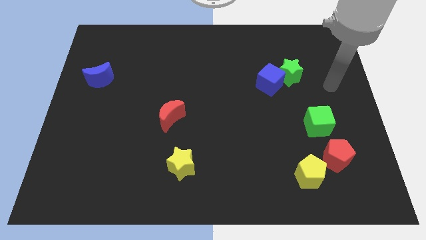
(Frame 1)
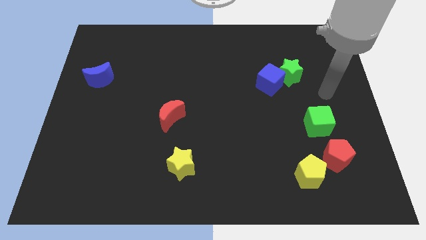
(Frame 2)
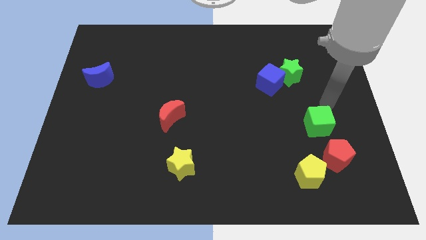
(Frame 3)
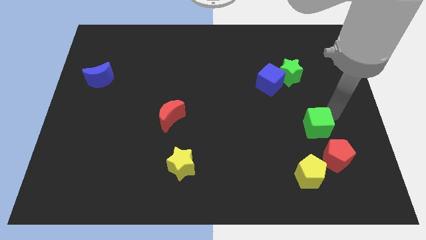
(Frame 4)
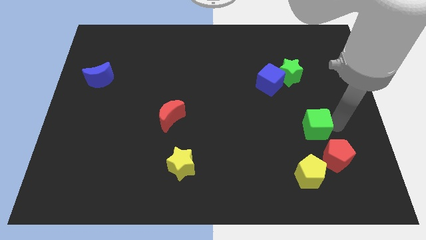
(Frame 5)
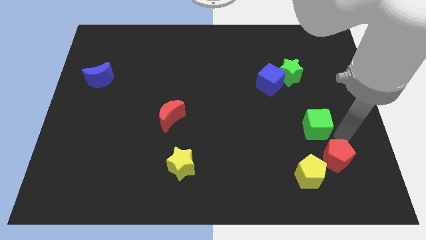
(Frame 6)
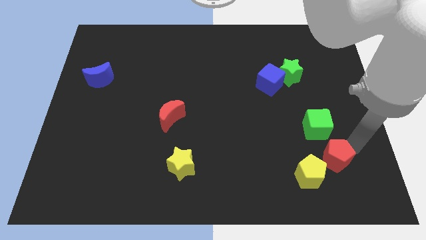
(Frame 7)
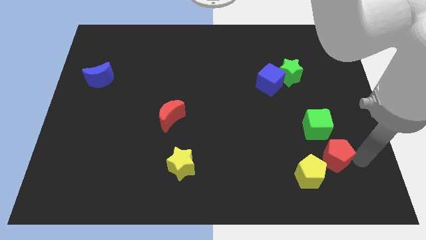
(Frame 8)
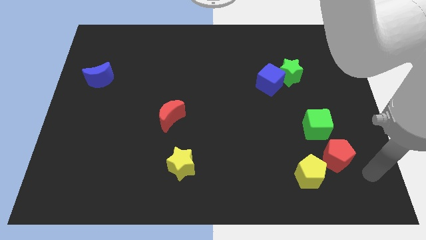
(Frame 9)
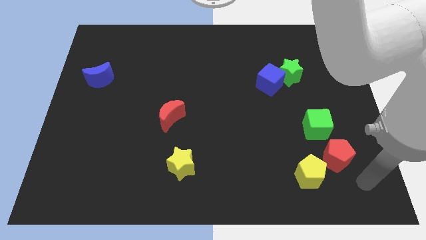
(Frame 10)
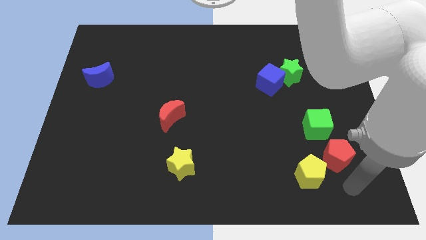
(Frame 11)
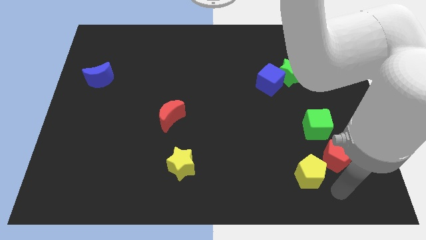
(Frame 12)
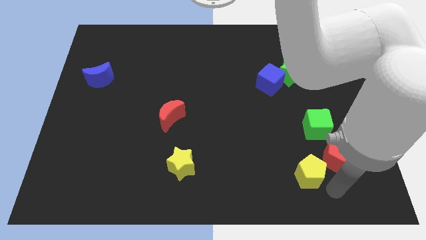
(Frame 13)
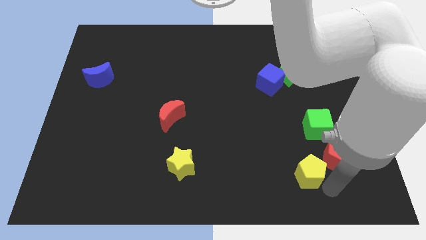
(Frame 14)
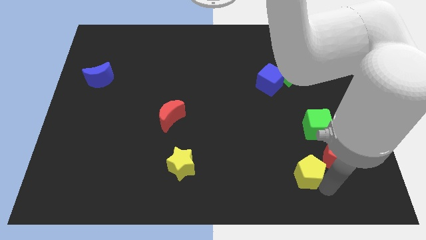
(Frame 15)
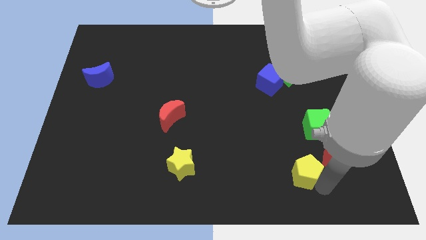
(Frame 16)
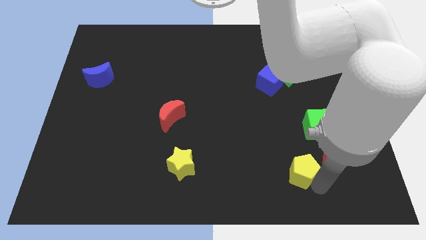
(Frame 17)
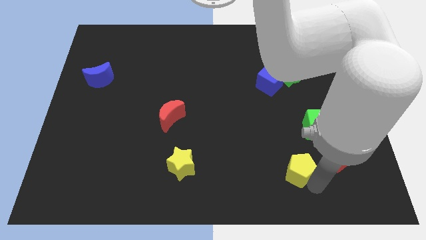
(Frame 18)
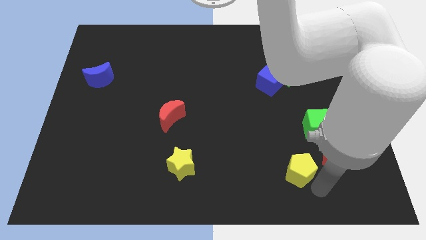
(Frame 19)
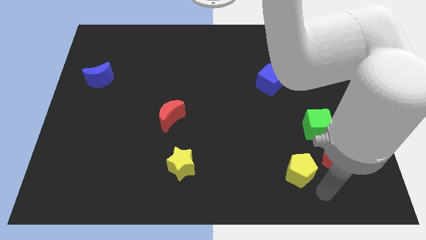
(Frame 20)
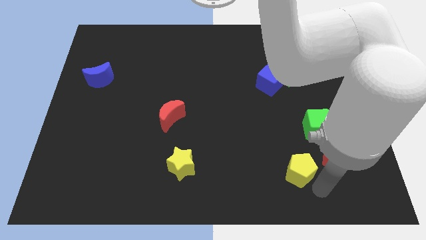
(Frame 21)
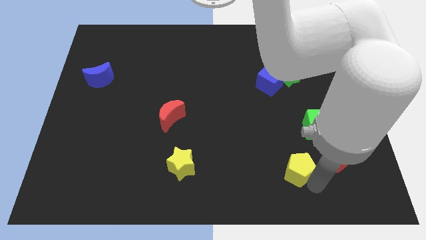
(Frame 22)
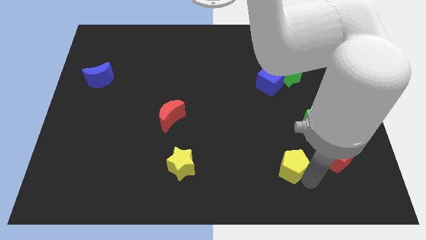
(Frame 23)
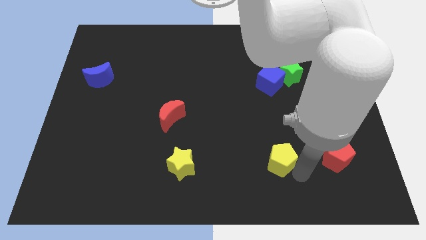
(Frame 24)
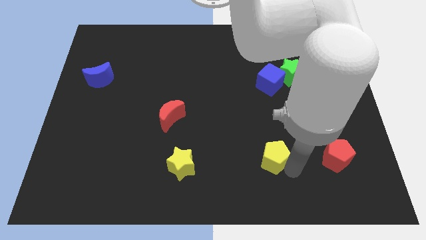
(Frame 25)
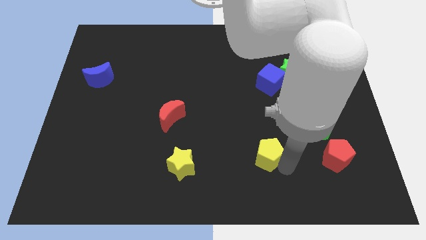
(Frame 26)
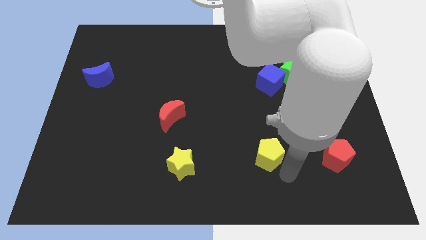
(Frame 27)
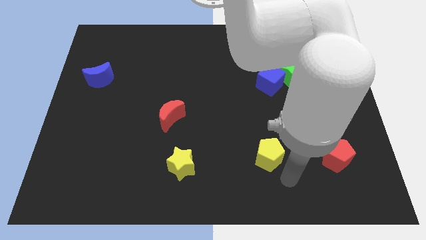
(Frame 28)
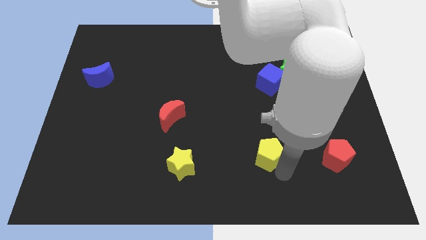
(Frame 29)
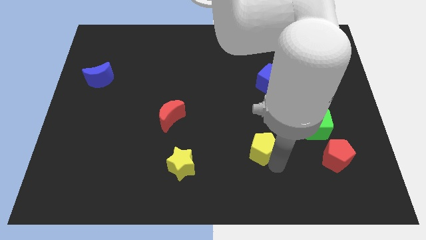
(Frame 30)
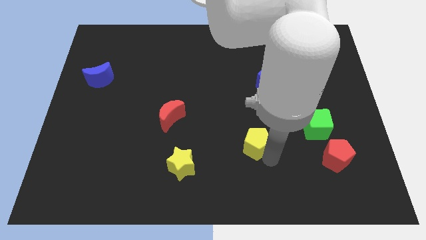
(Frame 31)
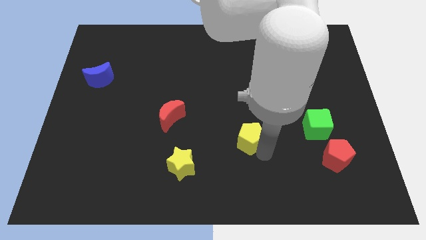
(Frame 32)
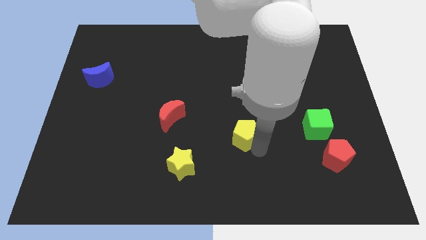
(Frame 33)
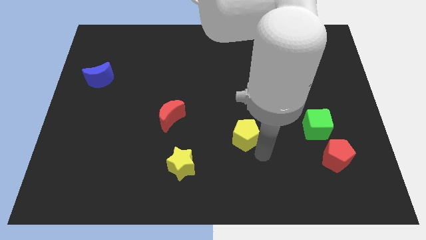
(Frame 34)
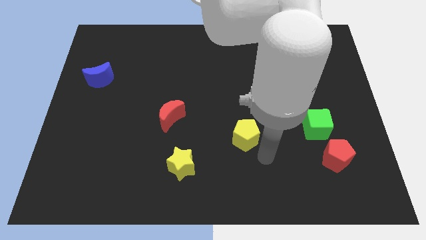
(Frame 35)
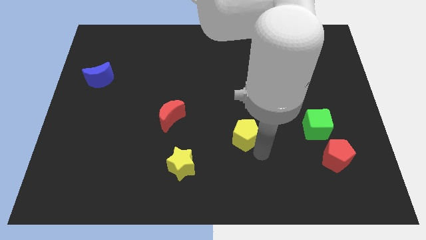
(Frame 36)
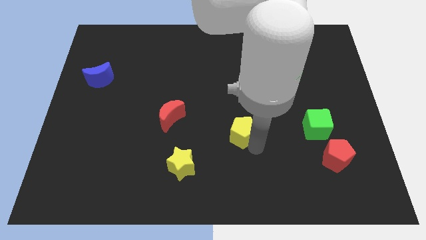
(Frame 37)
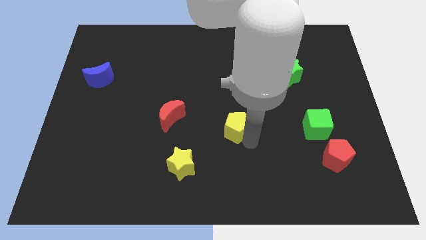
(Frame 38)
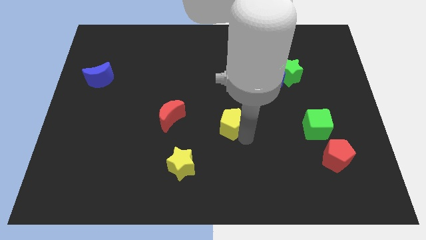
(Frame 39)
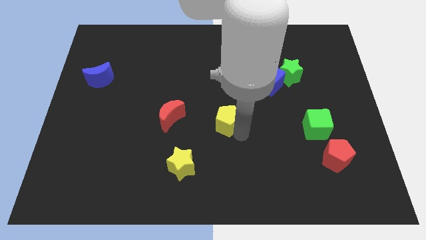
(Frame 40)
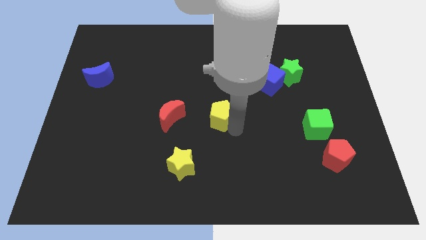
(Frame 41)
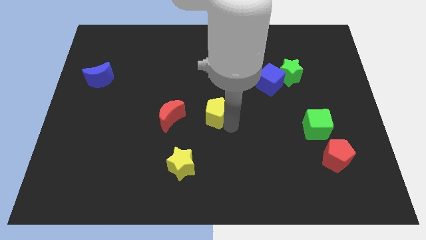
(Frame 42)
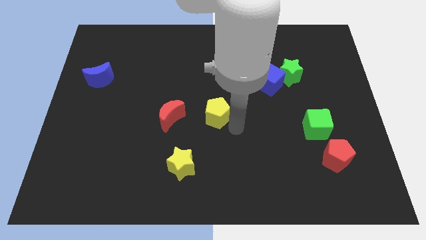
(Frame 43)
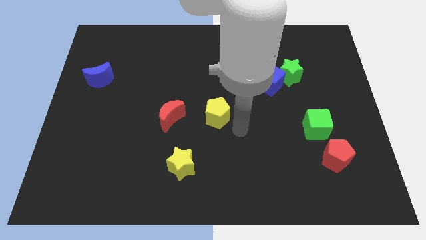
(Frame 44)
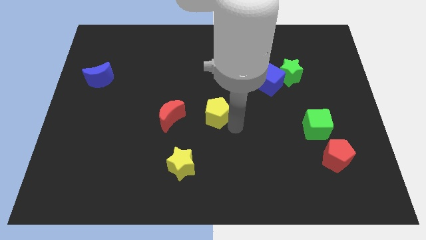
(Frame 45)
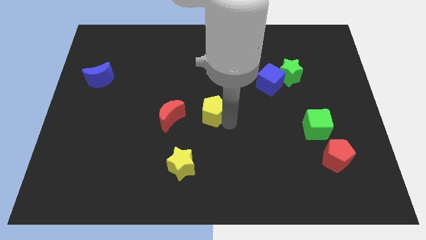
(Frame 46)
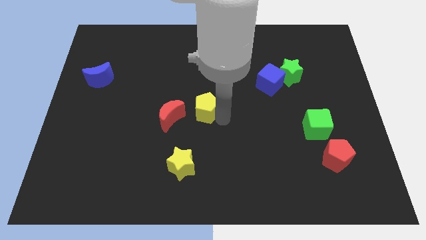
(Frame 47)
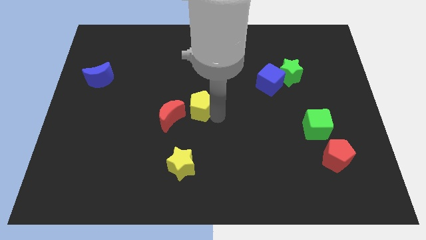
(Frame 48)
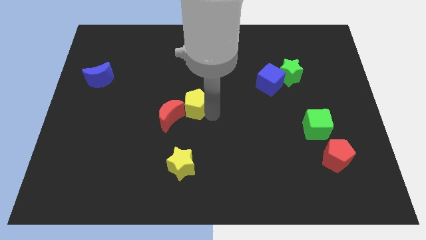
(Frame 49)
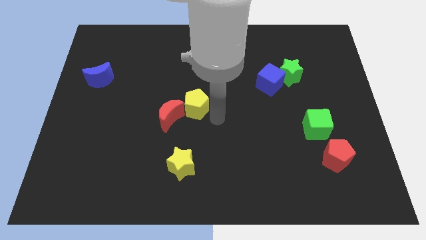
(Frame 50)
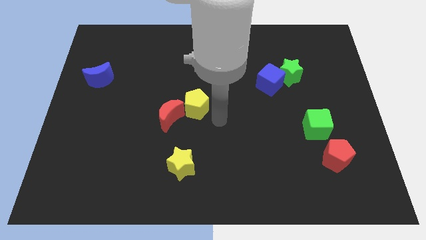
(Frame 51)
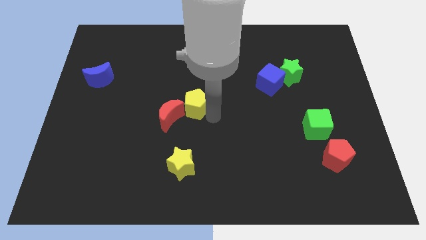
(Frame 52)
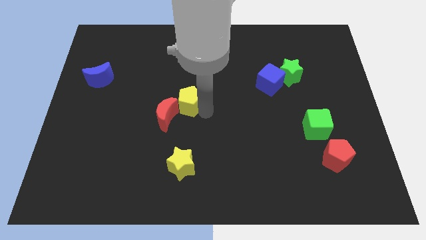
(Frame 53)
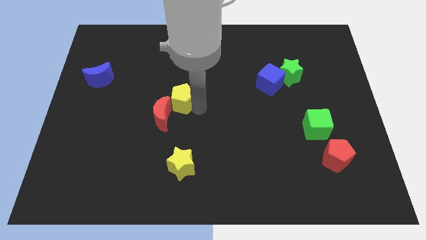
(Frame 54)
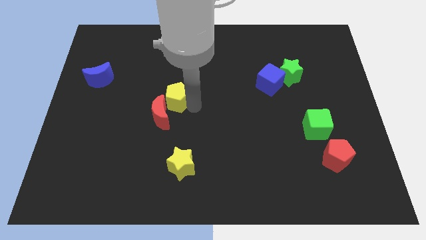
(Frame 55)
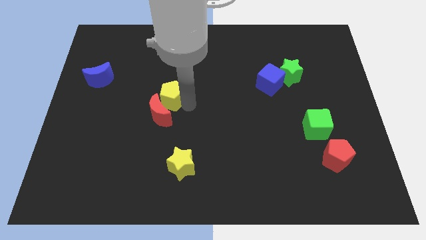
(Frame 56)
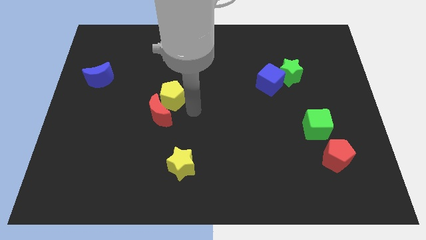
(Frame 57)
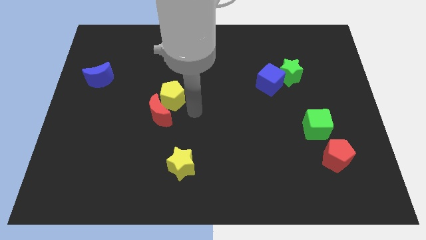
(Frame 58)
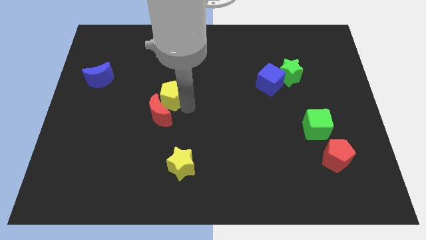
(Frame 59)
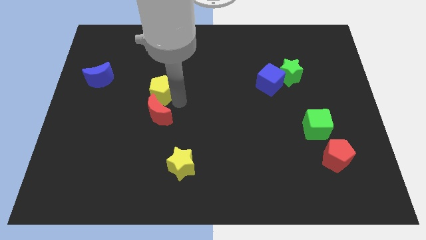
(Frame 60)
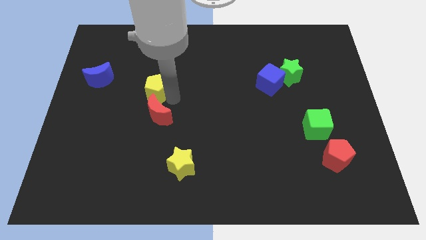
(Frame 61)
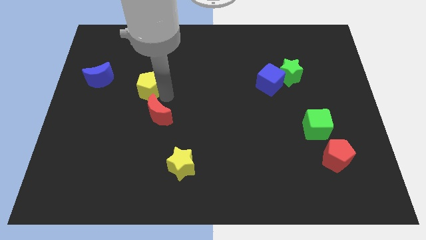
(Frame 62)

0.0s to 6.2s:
move the yellow pentagon to the right side of the blue moon

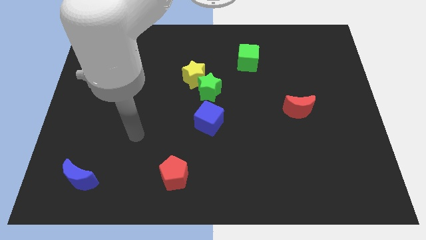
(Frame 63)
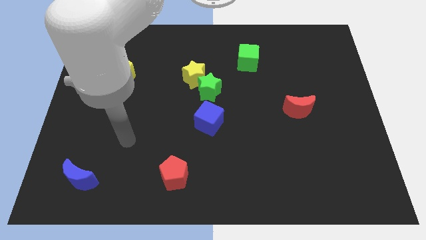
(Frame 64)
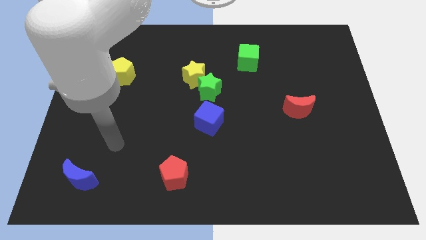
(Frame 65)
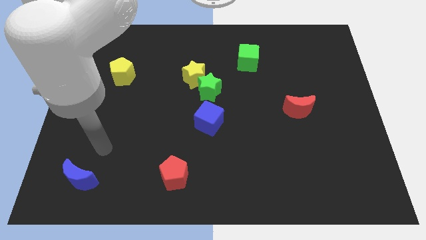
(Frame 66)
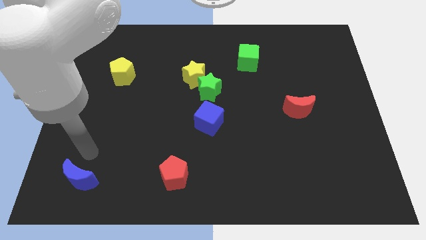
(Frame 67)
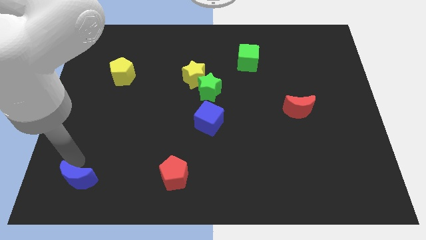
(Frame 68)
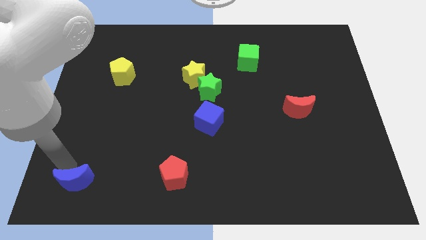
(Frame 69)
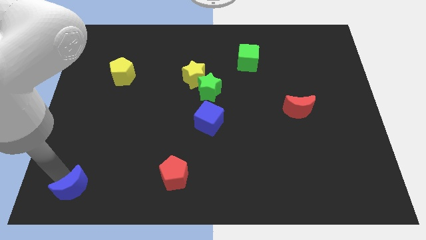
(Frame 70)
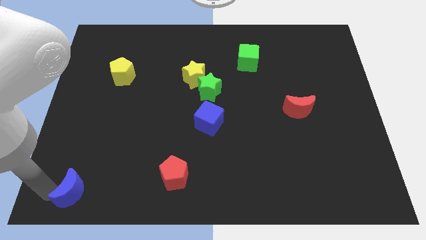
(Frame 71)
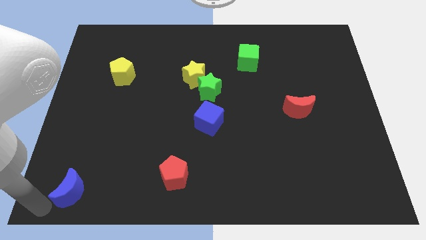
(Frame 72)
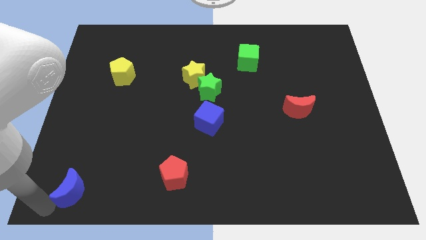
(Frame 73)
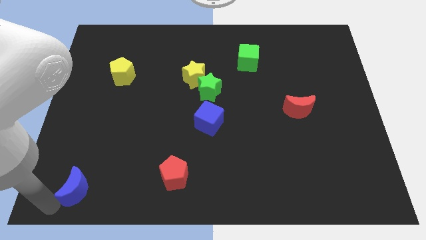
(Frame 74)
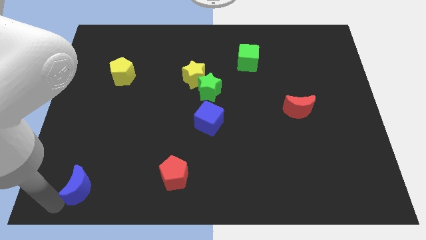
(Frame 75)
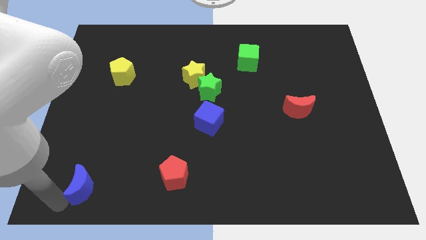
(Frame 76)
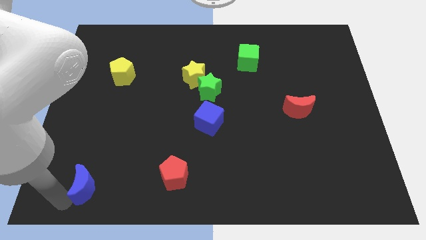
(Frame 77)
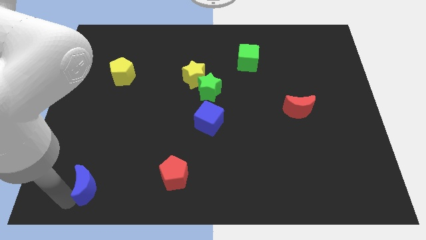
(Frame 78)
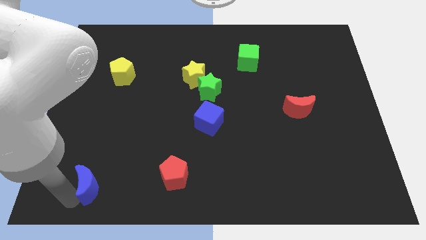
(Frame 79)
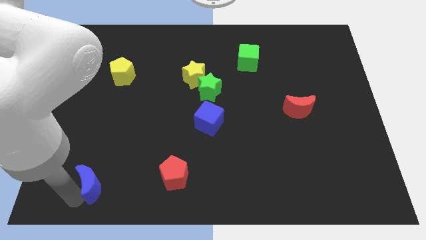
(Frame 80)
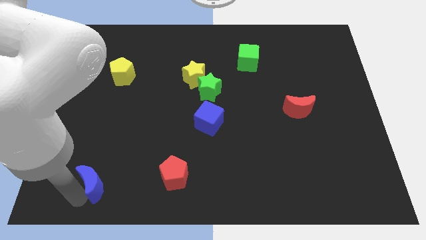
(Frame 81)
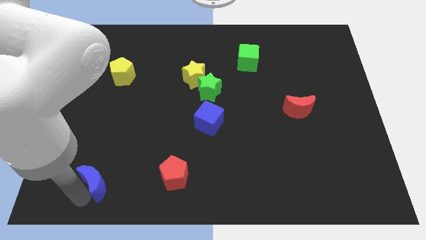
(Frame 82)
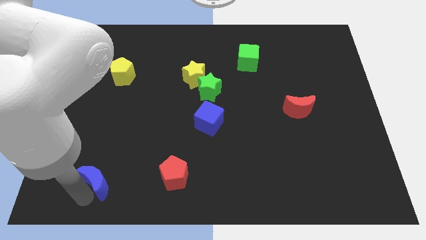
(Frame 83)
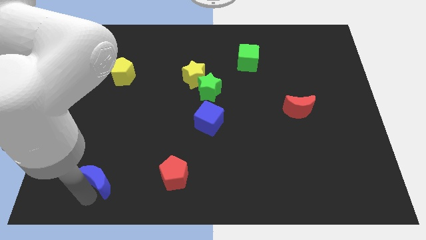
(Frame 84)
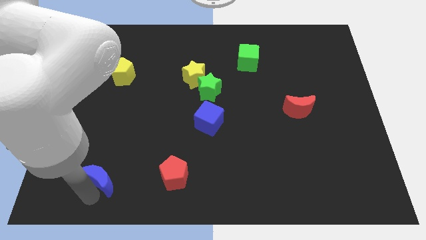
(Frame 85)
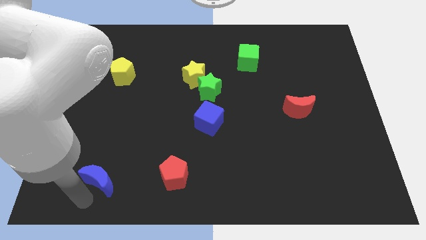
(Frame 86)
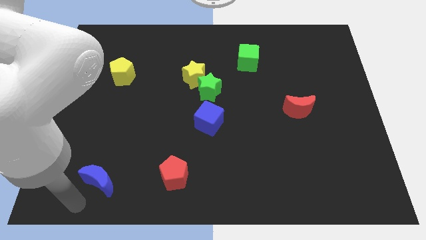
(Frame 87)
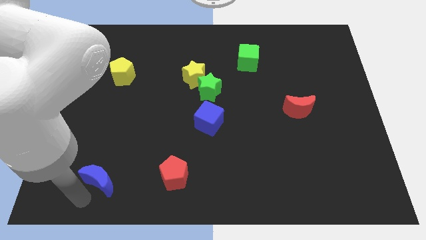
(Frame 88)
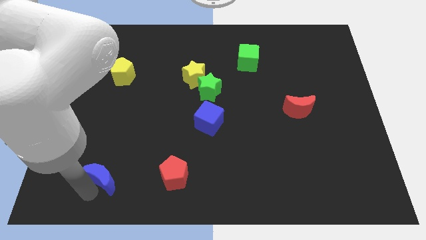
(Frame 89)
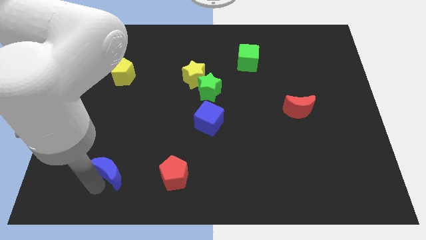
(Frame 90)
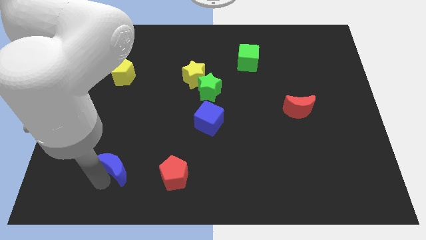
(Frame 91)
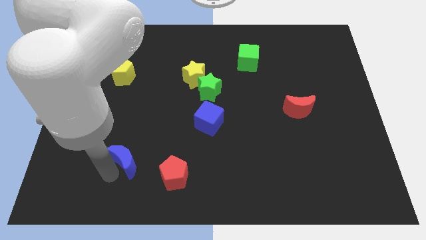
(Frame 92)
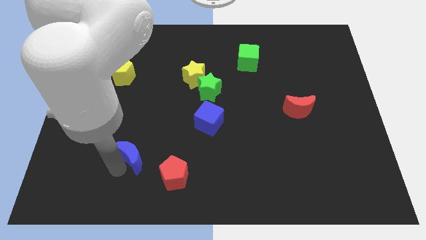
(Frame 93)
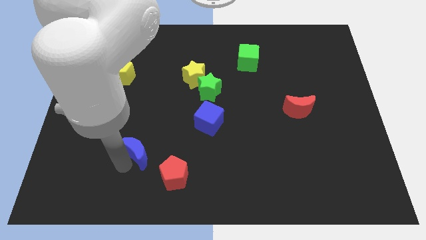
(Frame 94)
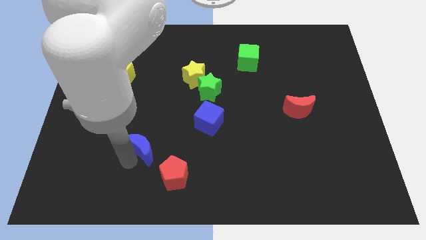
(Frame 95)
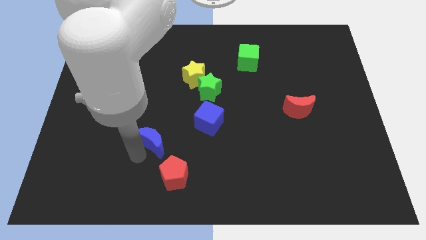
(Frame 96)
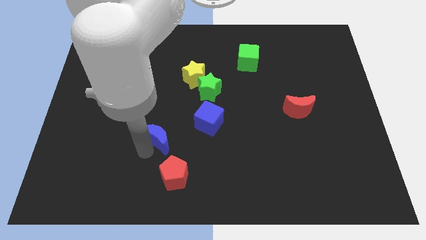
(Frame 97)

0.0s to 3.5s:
slide the blue moon left of the blue cube
